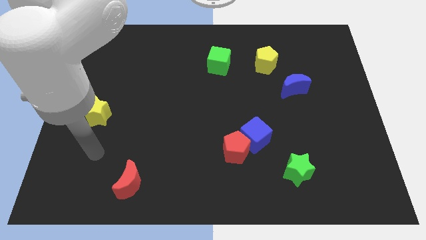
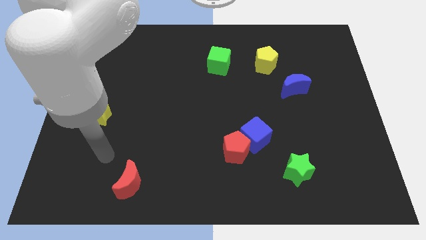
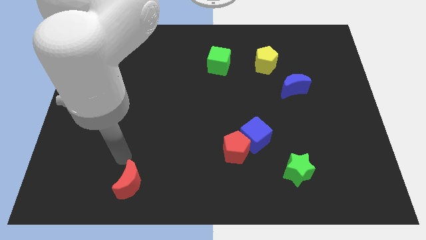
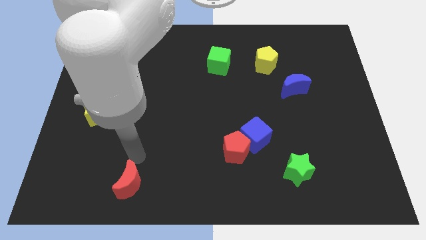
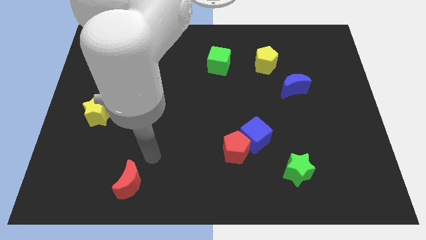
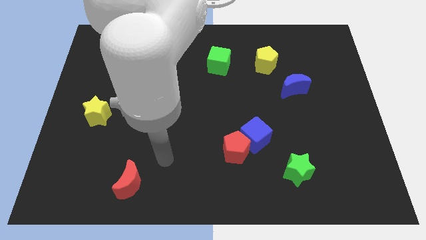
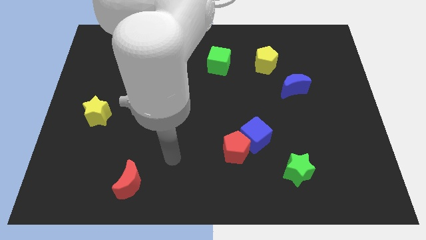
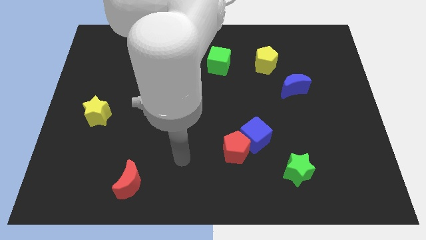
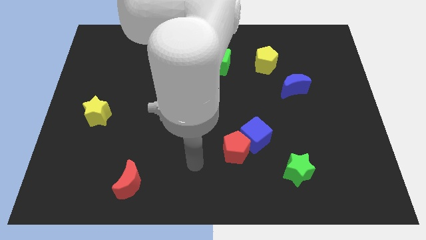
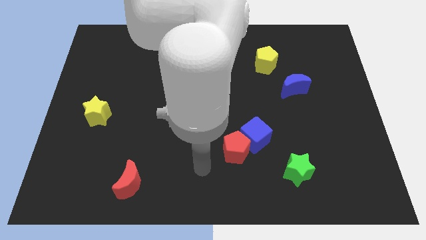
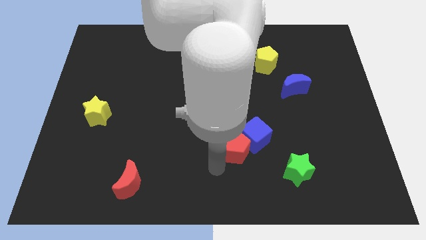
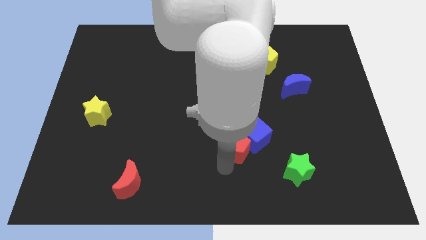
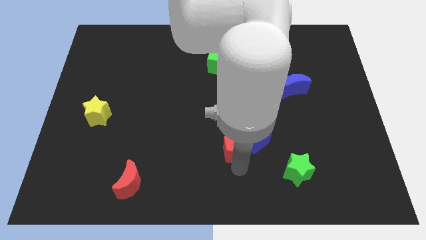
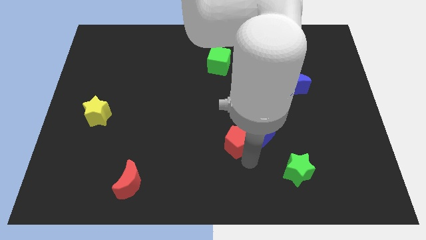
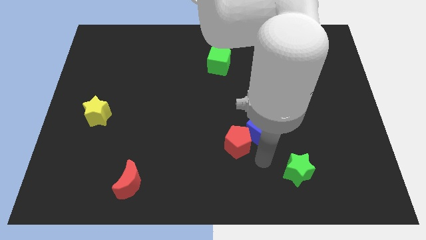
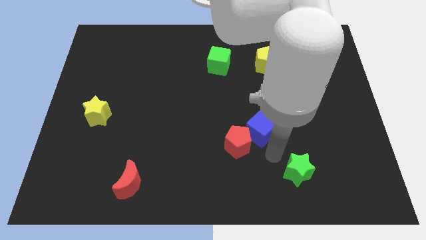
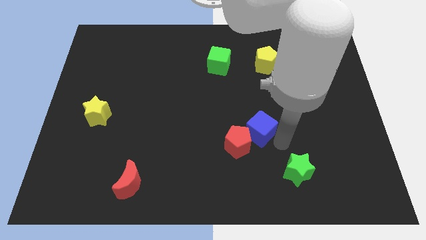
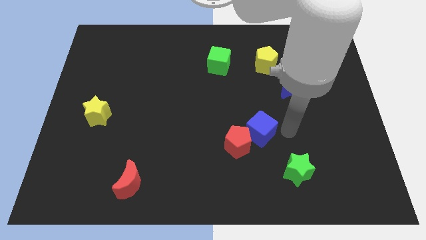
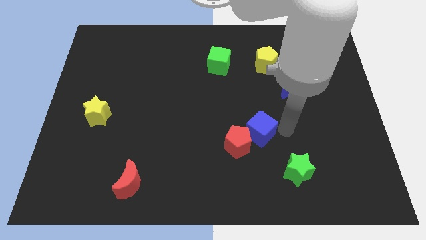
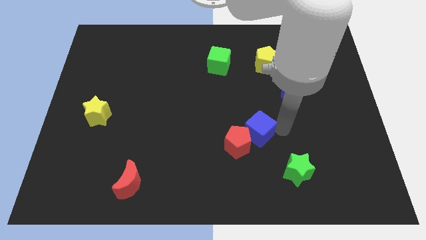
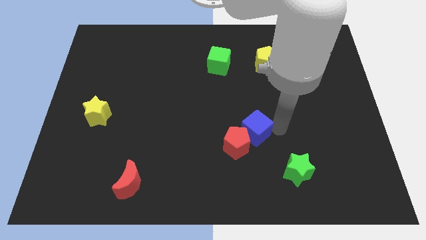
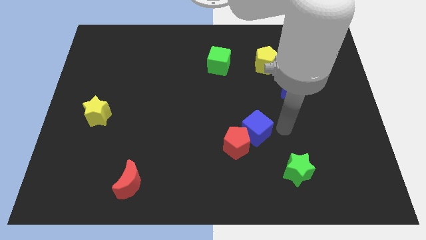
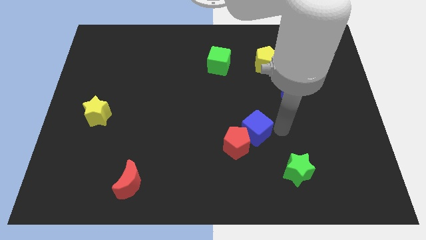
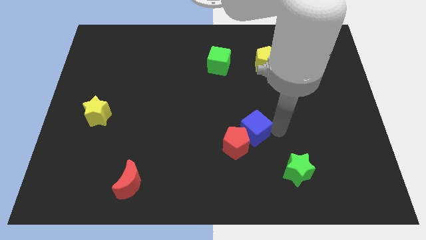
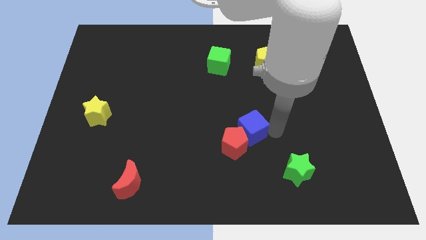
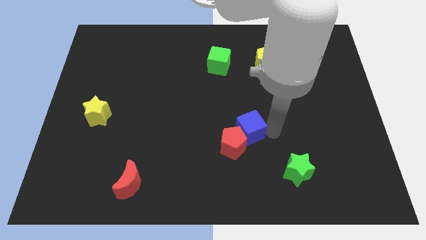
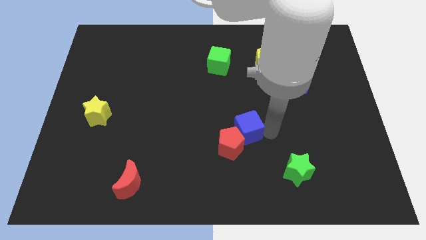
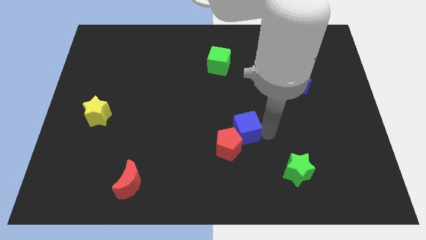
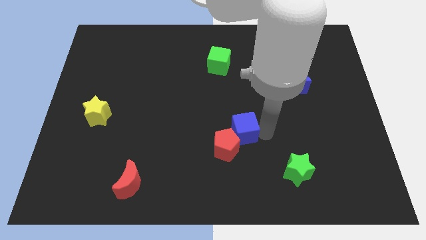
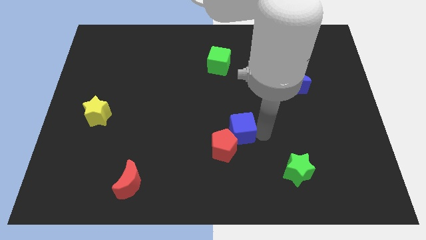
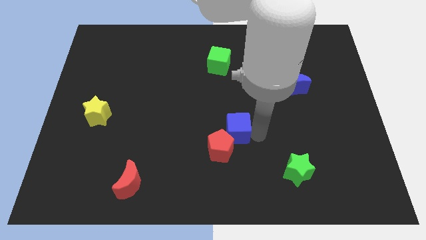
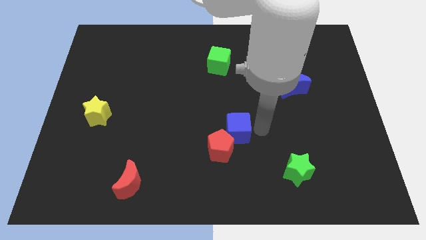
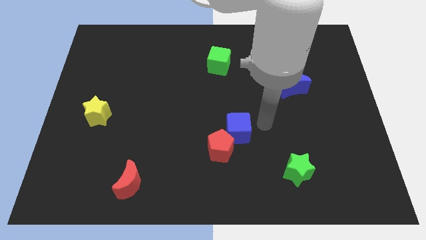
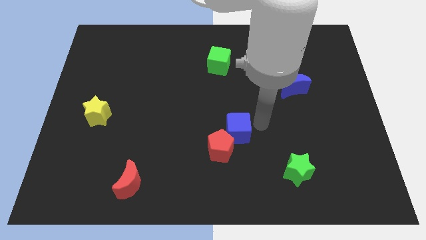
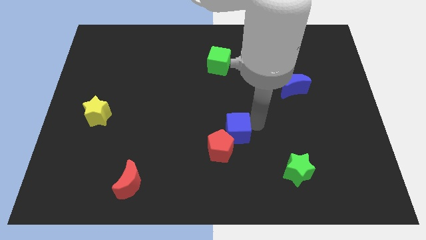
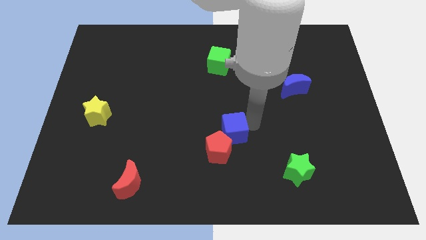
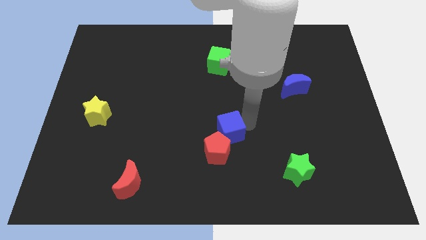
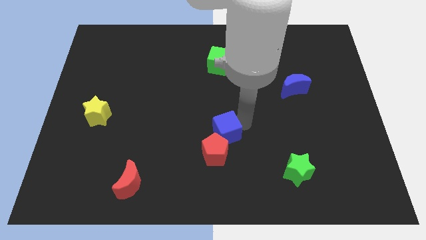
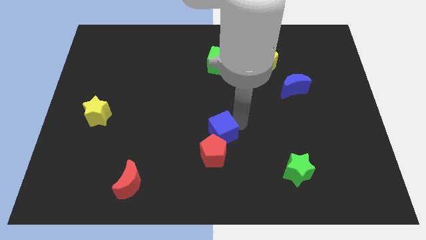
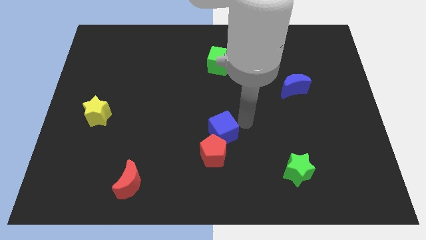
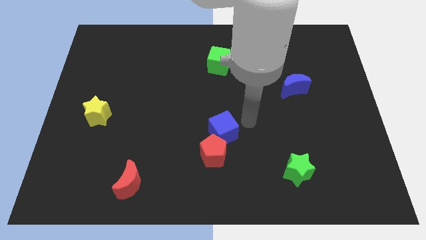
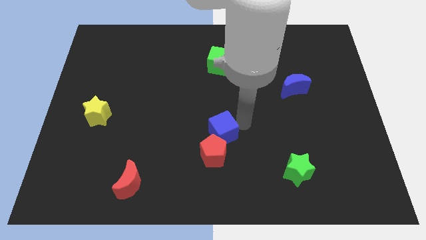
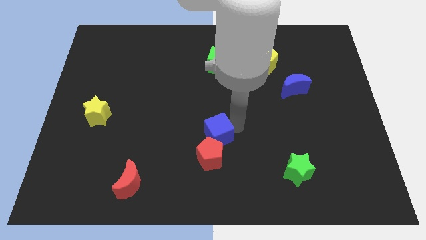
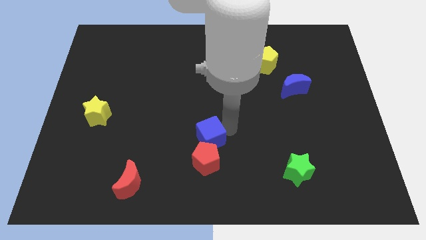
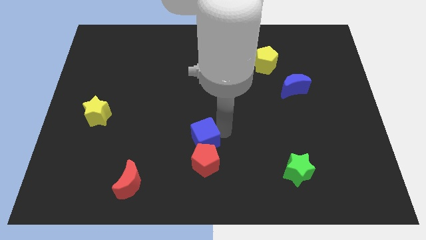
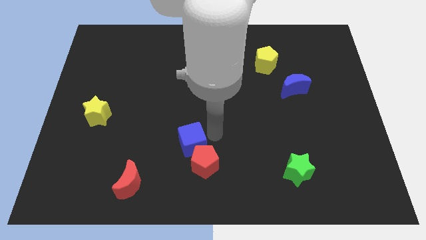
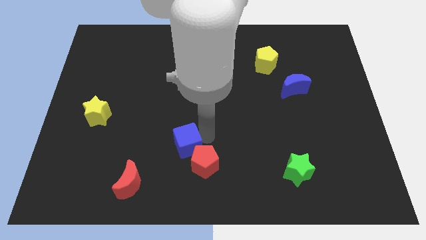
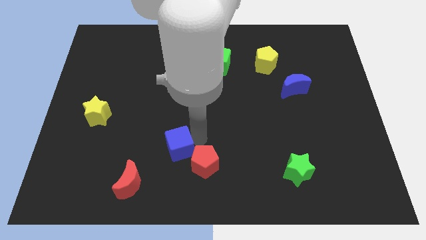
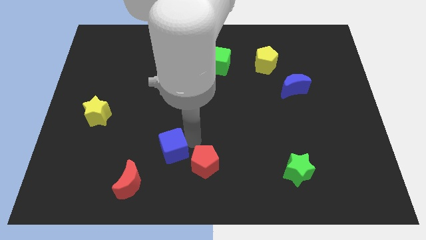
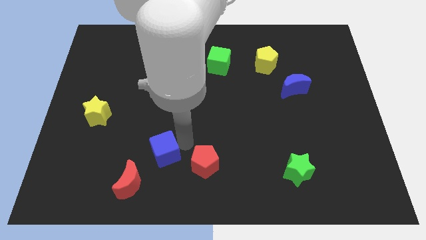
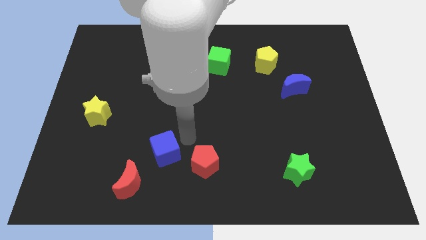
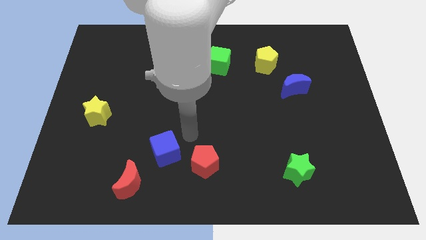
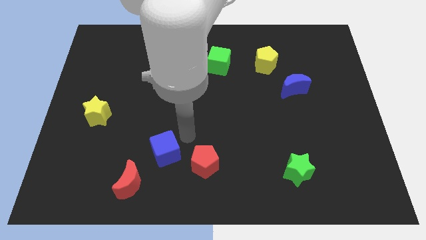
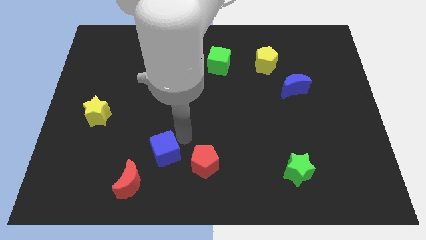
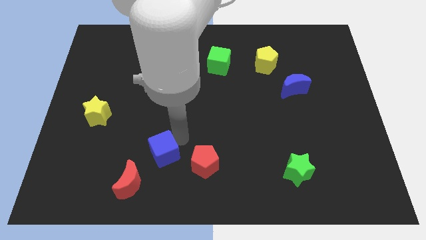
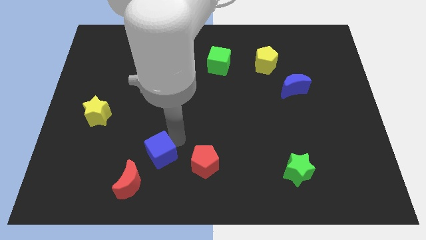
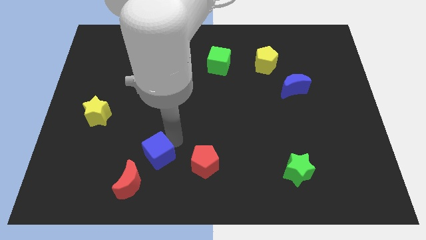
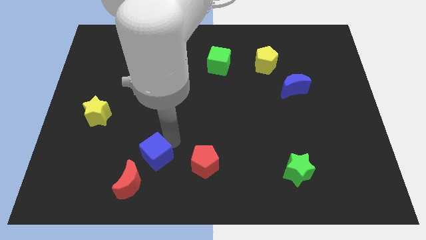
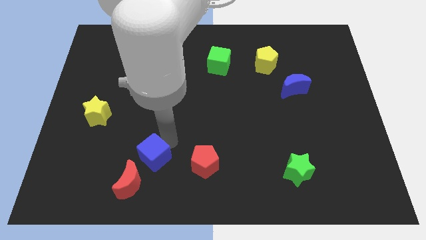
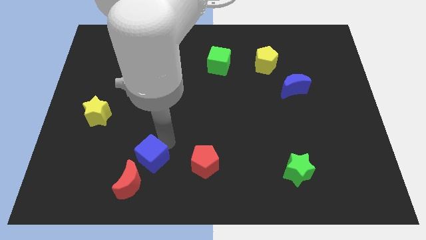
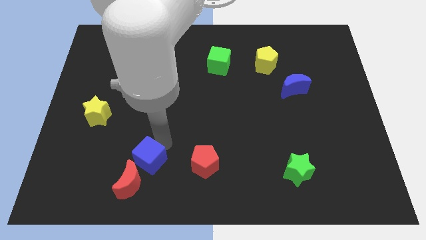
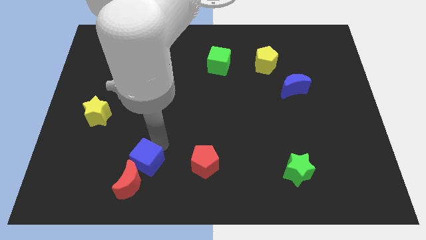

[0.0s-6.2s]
put the blue cube close to the red moon

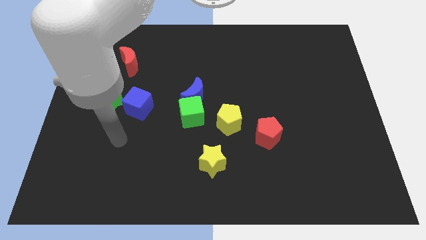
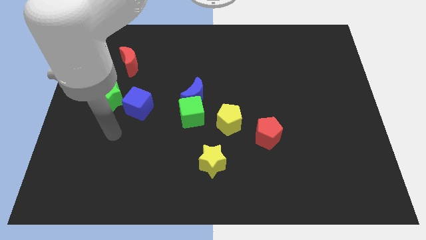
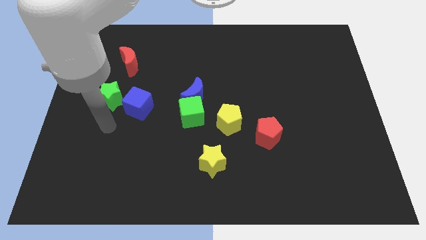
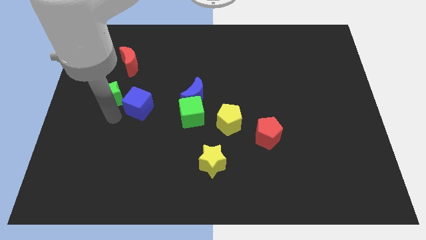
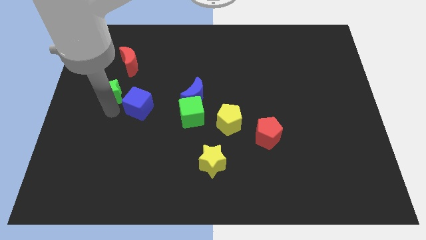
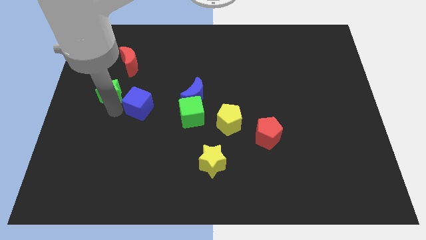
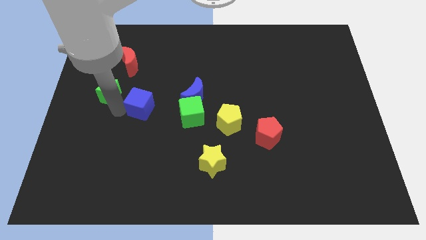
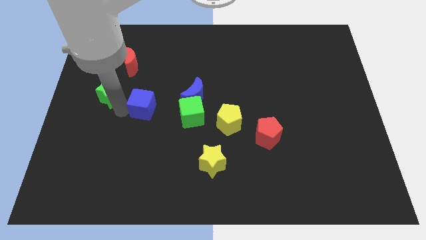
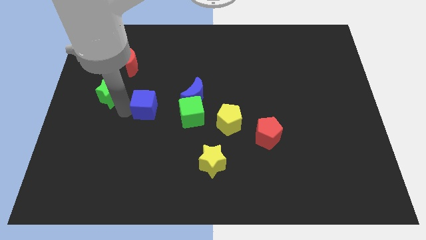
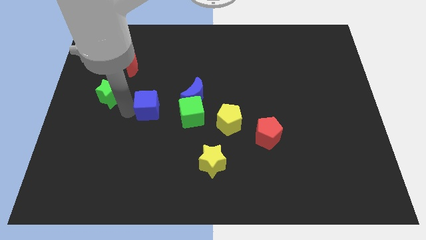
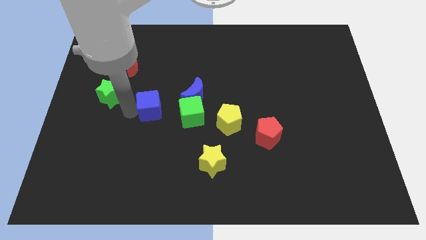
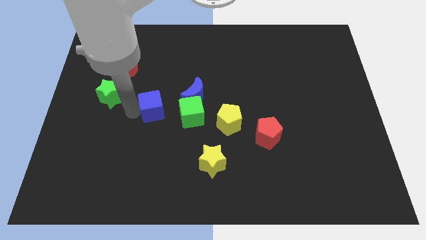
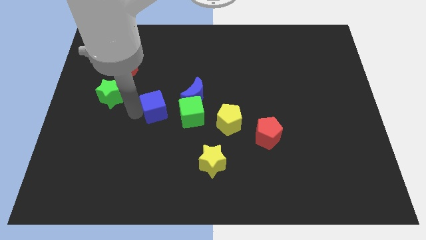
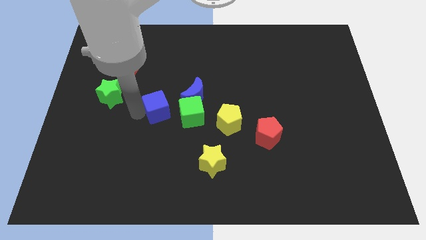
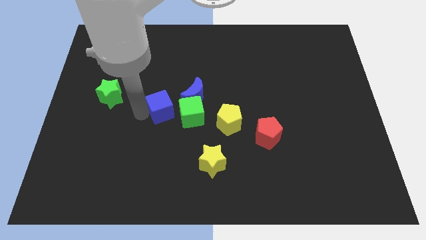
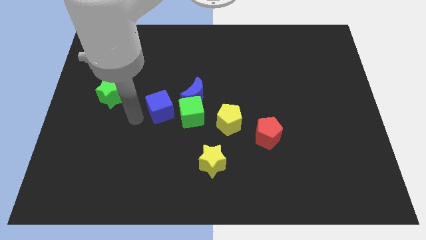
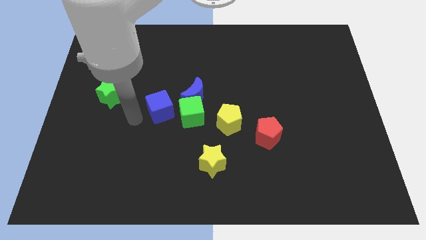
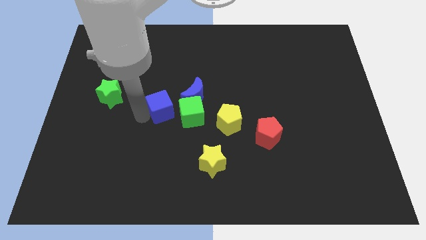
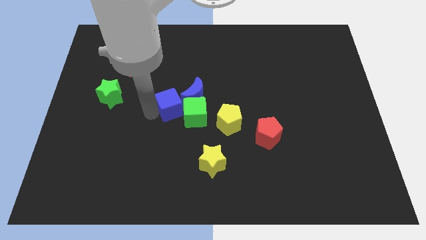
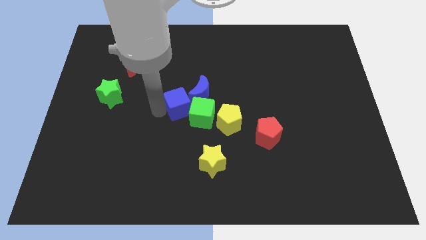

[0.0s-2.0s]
push the blue cube close to the blue moon
